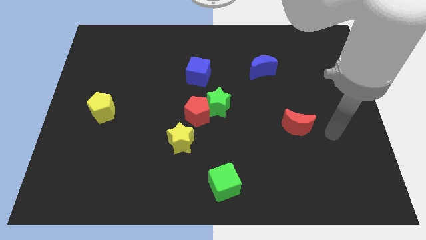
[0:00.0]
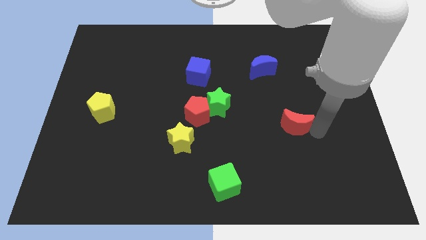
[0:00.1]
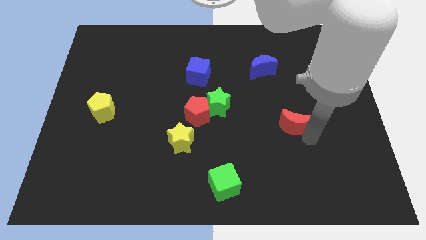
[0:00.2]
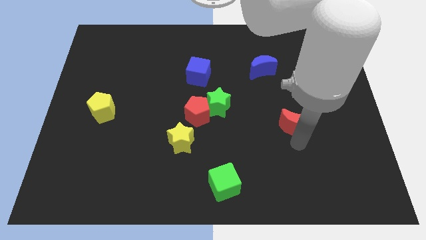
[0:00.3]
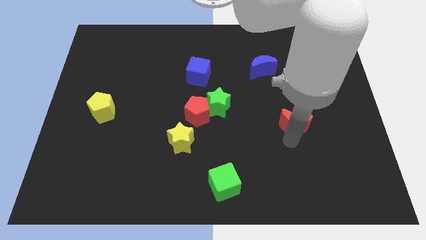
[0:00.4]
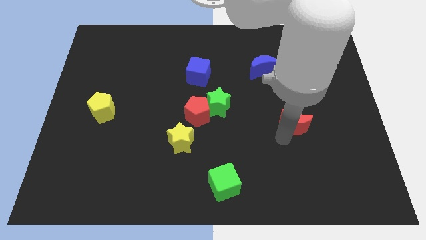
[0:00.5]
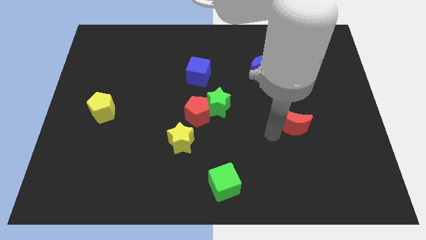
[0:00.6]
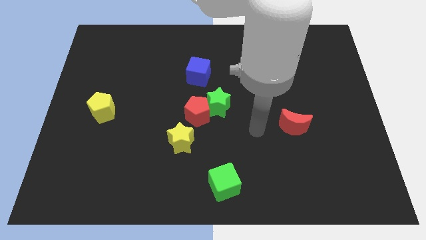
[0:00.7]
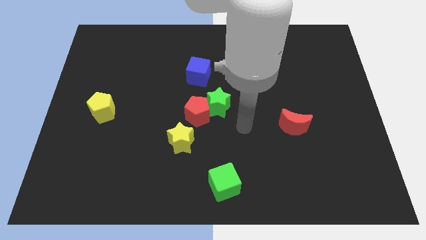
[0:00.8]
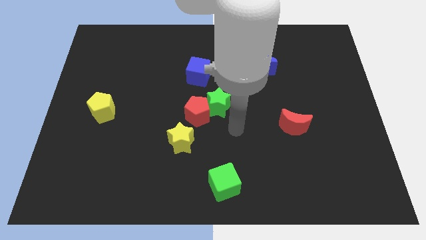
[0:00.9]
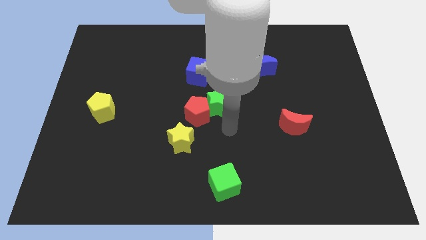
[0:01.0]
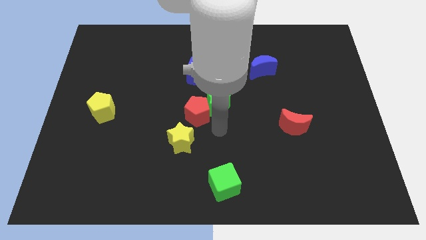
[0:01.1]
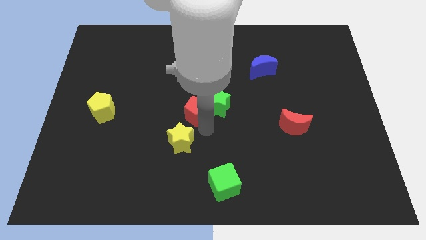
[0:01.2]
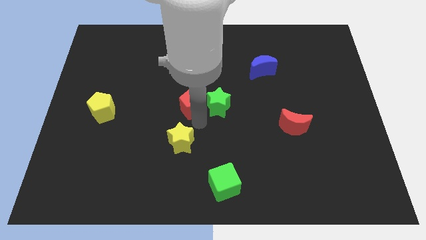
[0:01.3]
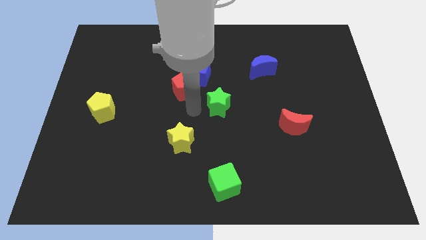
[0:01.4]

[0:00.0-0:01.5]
pull the green star apart from the red pentagon

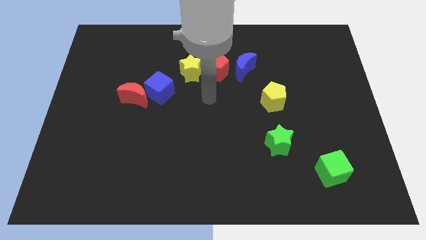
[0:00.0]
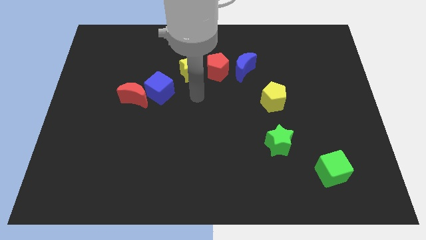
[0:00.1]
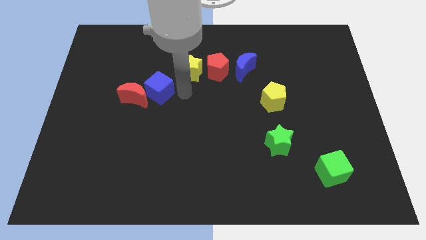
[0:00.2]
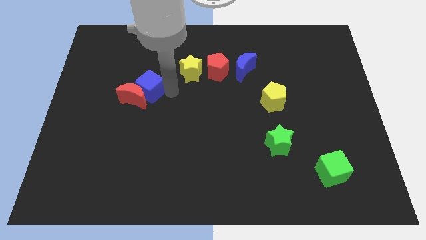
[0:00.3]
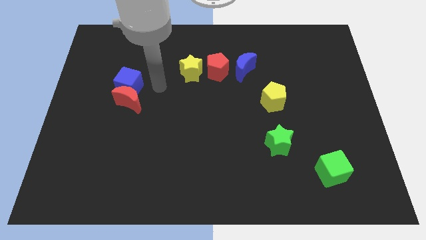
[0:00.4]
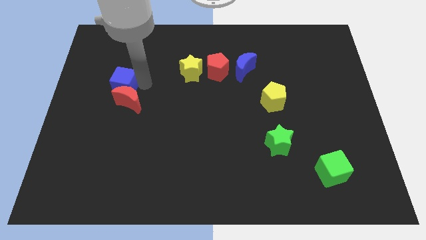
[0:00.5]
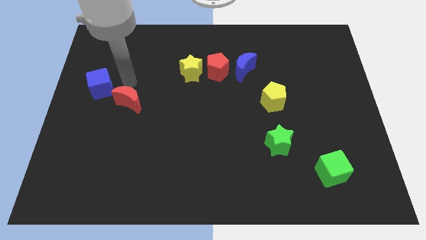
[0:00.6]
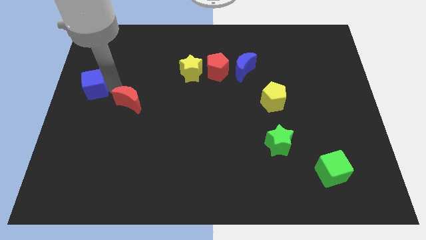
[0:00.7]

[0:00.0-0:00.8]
separate the red moon from the blue cube

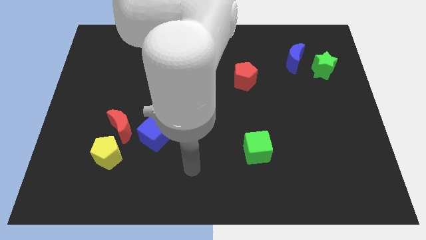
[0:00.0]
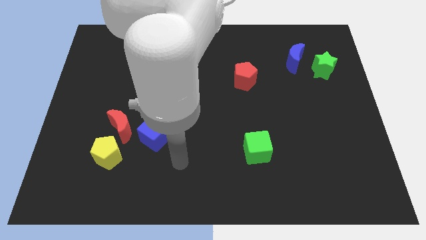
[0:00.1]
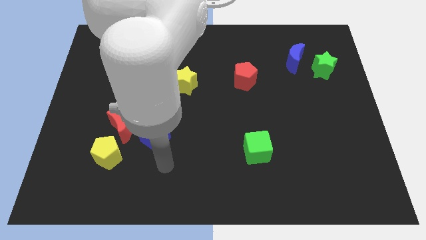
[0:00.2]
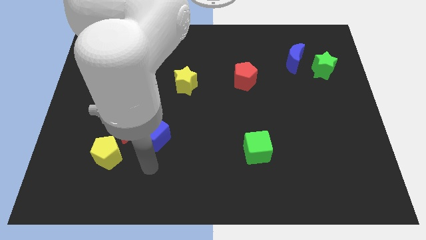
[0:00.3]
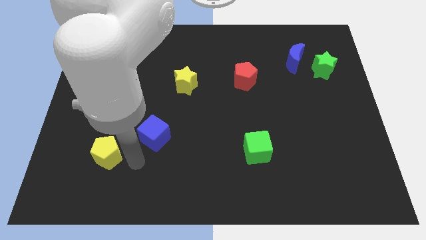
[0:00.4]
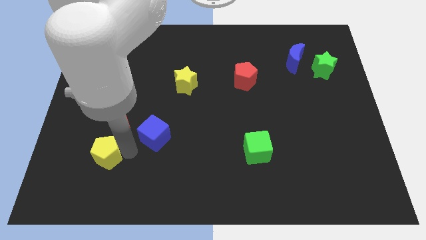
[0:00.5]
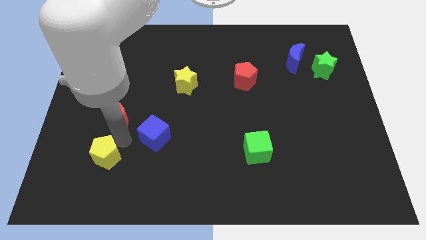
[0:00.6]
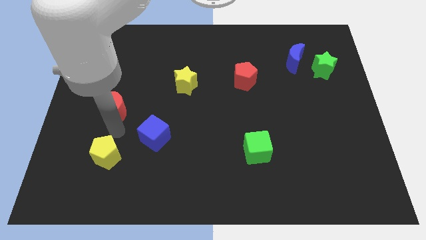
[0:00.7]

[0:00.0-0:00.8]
move the yellow pentagon away from the red moon

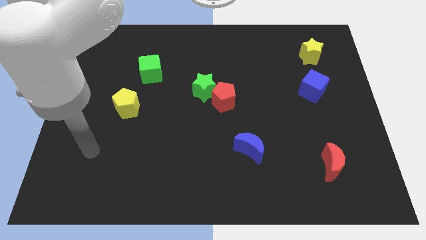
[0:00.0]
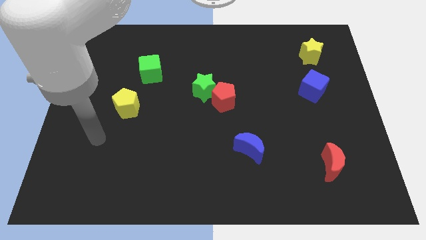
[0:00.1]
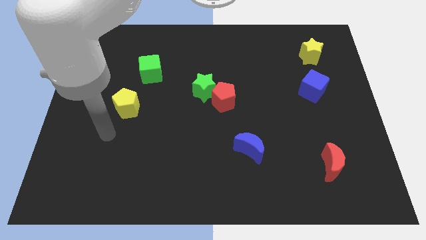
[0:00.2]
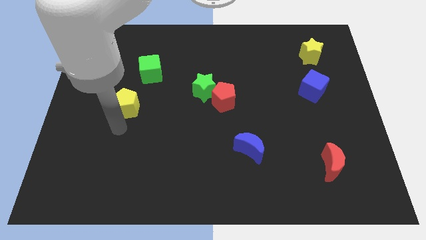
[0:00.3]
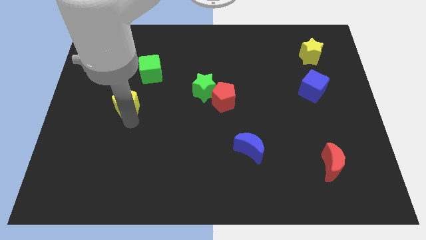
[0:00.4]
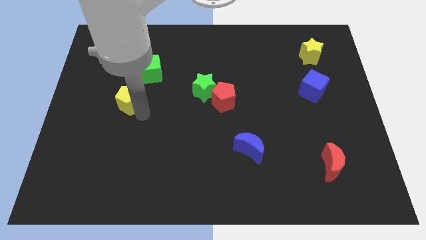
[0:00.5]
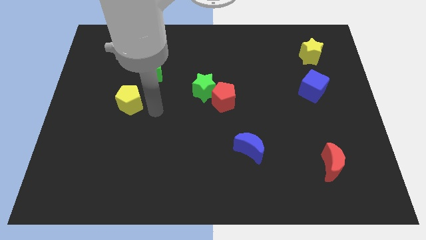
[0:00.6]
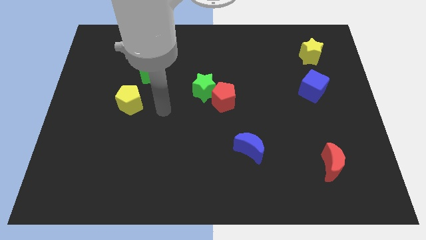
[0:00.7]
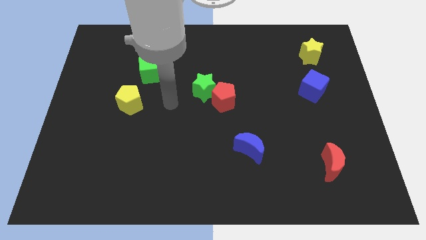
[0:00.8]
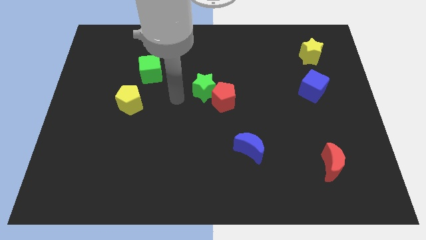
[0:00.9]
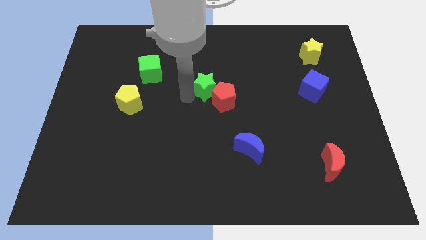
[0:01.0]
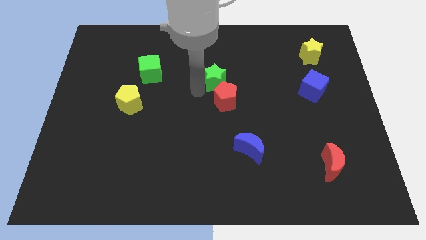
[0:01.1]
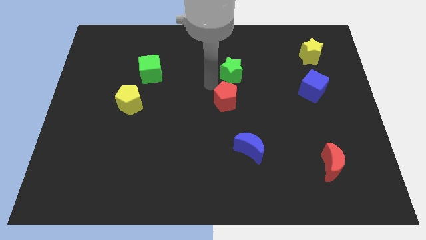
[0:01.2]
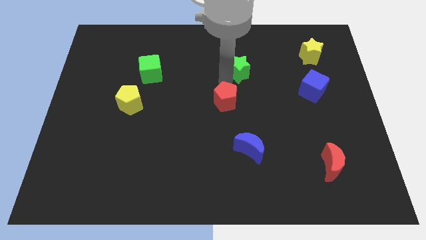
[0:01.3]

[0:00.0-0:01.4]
pull the red pentagon apart from the green star

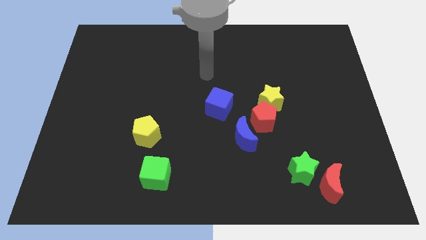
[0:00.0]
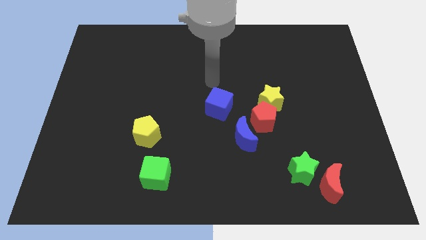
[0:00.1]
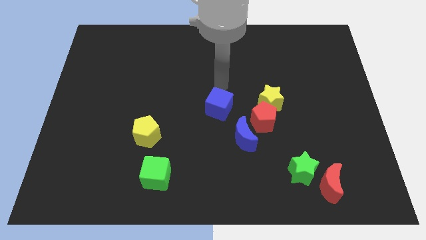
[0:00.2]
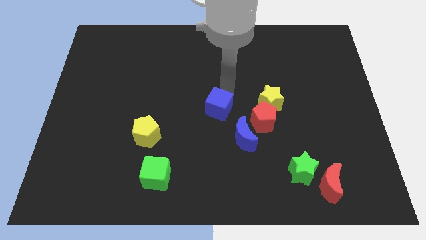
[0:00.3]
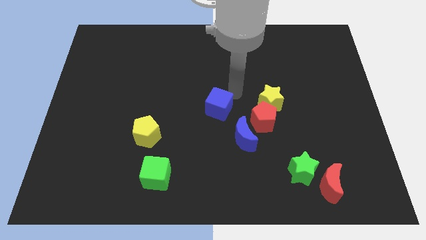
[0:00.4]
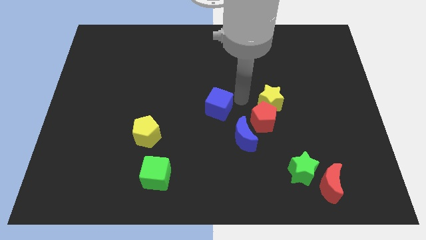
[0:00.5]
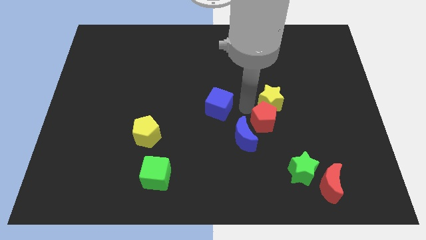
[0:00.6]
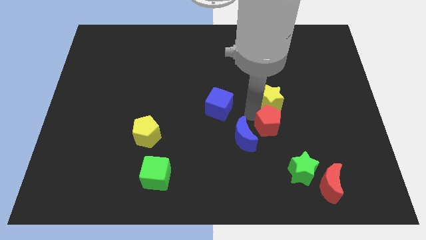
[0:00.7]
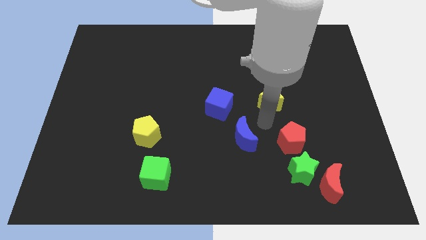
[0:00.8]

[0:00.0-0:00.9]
separate the yellow star from the red pentagon

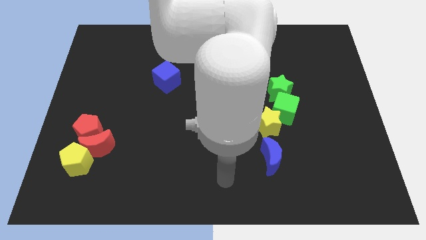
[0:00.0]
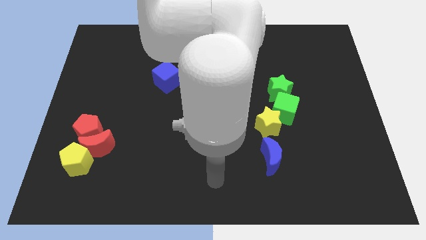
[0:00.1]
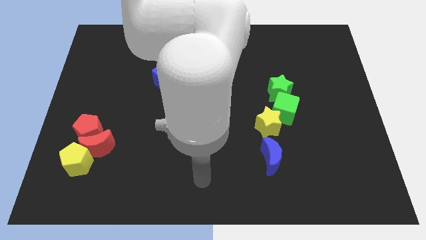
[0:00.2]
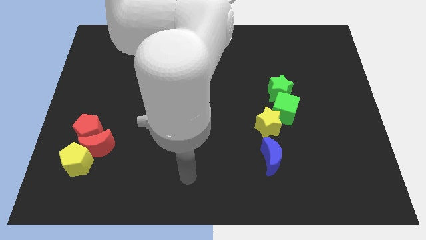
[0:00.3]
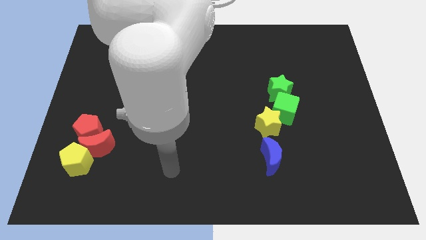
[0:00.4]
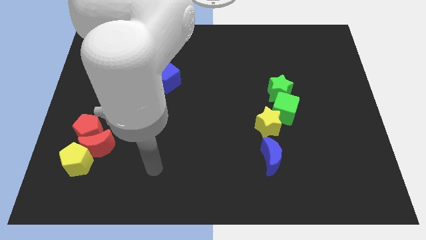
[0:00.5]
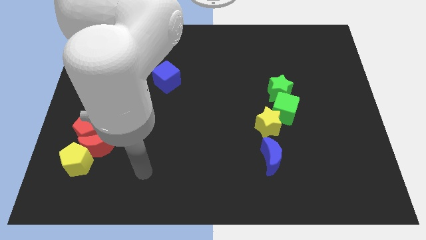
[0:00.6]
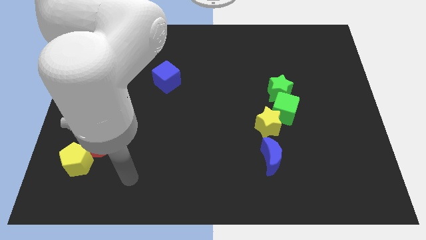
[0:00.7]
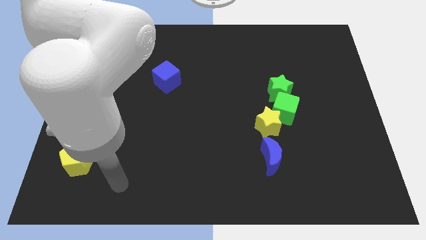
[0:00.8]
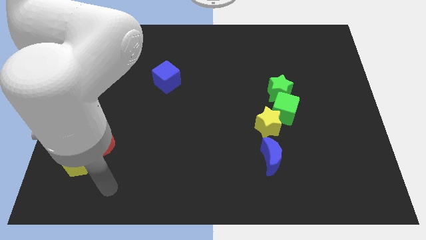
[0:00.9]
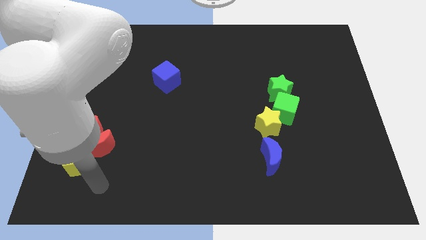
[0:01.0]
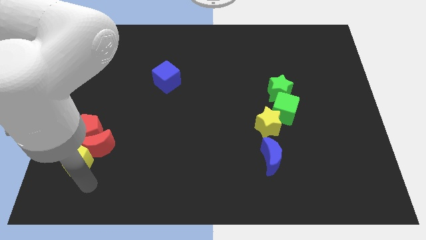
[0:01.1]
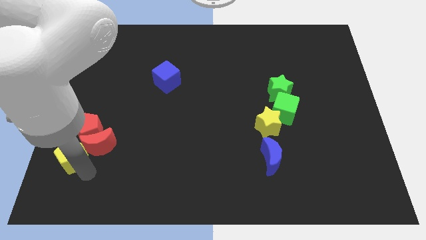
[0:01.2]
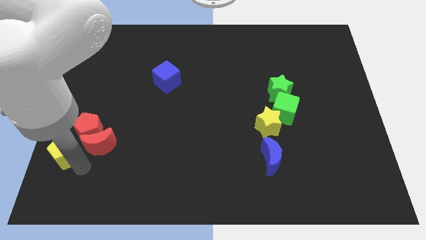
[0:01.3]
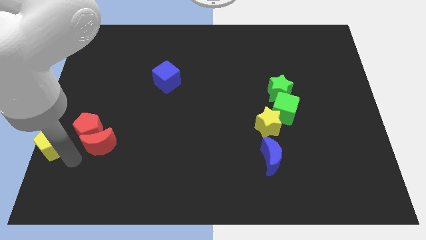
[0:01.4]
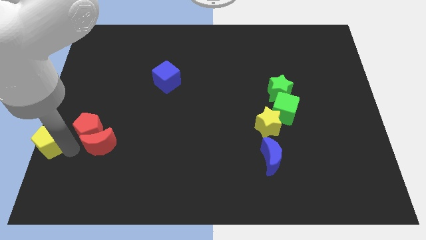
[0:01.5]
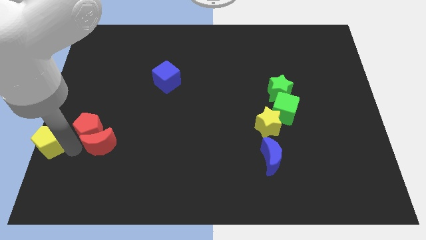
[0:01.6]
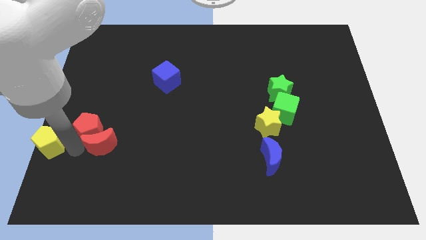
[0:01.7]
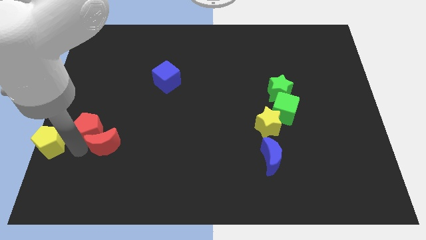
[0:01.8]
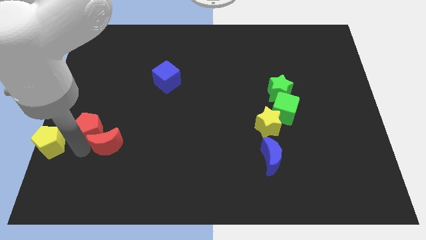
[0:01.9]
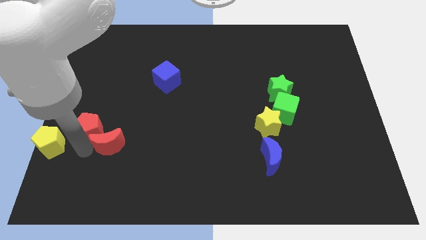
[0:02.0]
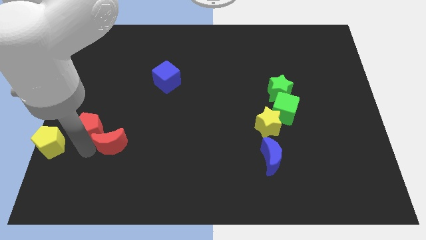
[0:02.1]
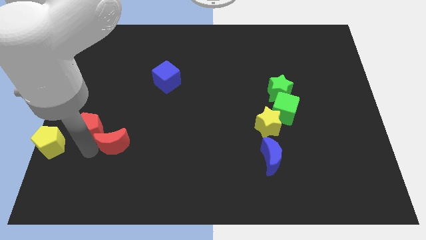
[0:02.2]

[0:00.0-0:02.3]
pull the red moon apart from the red pentagon and yellow pentagon

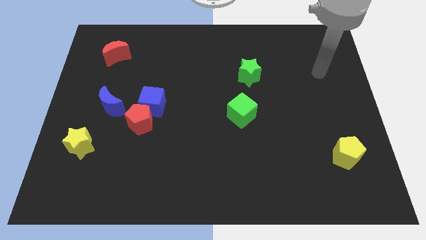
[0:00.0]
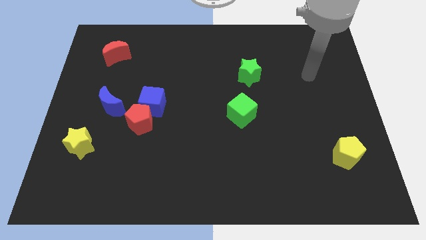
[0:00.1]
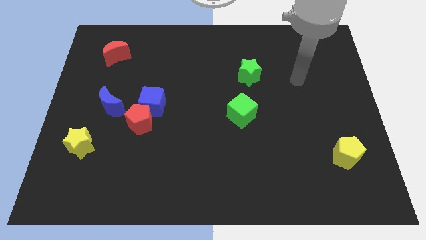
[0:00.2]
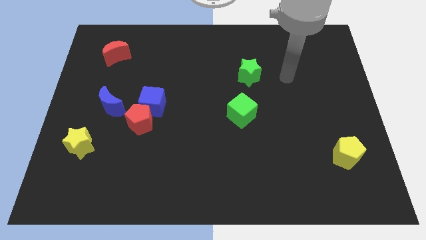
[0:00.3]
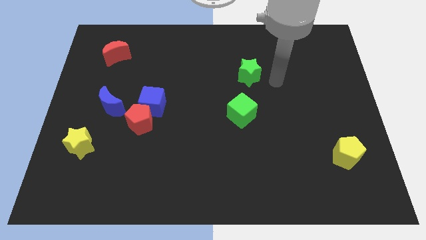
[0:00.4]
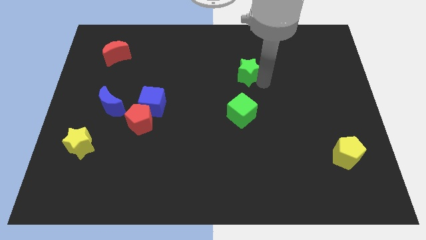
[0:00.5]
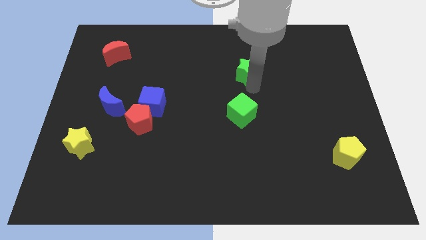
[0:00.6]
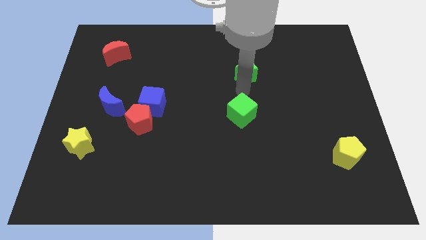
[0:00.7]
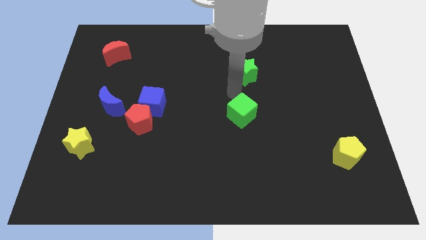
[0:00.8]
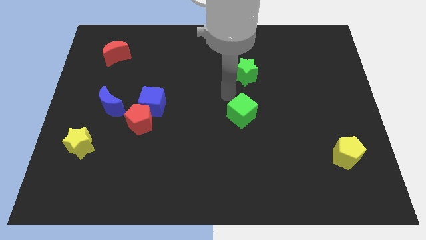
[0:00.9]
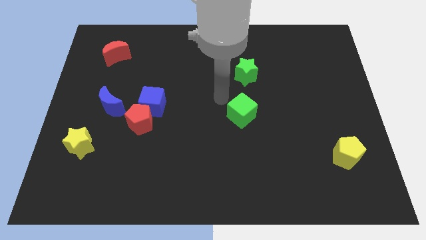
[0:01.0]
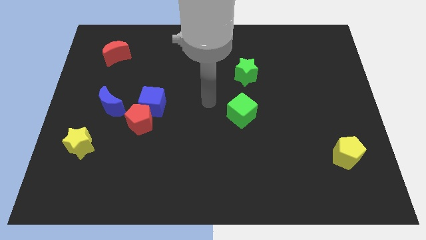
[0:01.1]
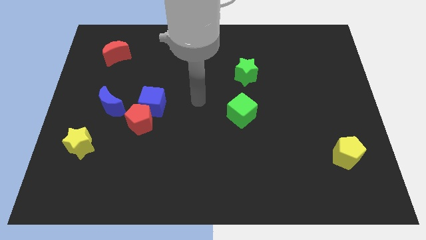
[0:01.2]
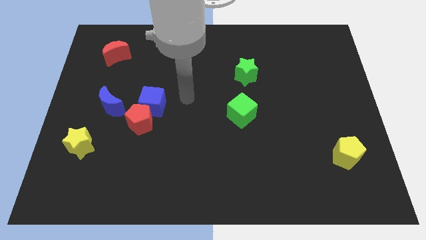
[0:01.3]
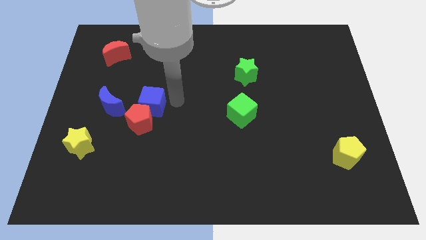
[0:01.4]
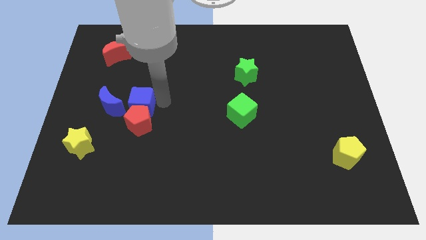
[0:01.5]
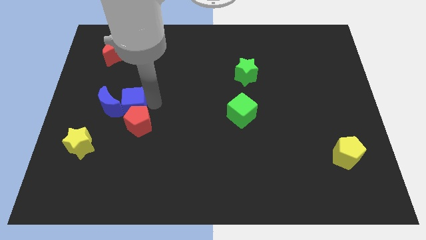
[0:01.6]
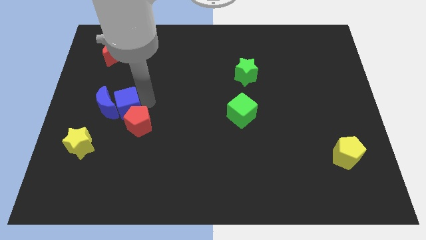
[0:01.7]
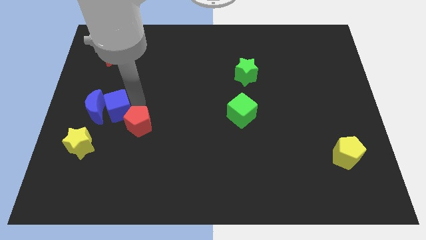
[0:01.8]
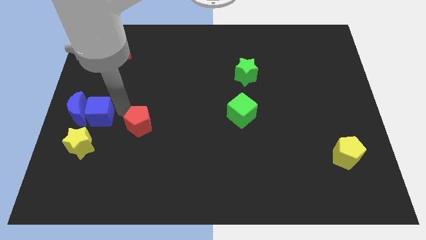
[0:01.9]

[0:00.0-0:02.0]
pull the red pentagon apart from the blue cube and blue moon
